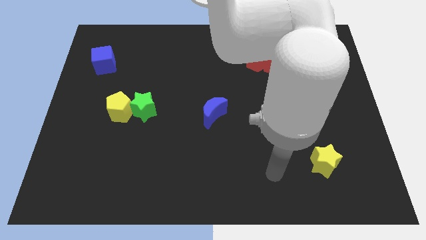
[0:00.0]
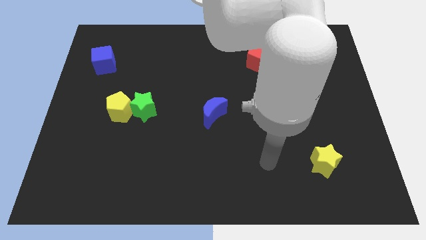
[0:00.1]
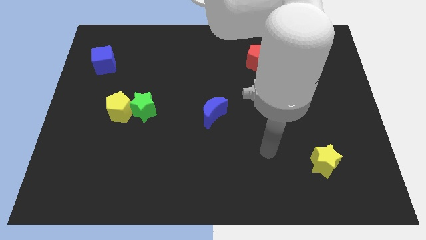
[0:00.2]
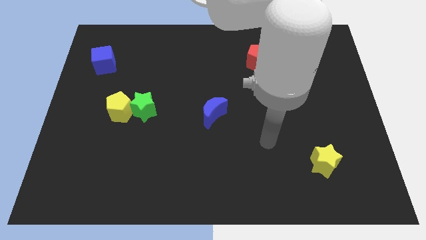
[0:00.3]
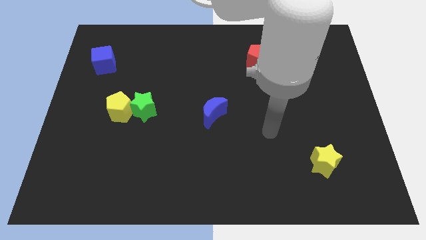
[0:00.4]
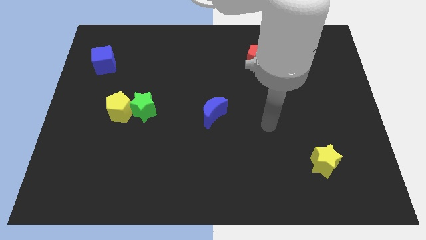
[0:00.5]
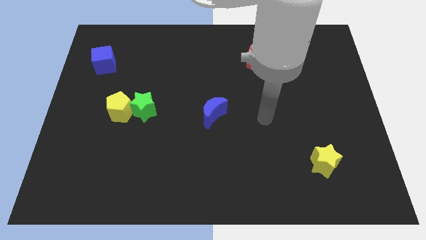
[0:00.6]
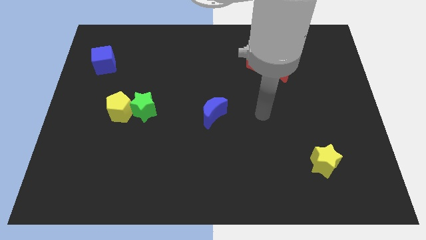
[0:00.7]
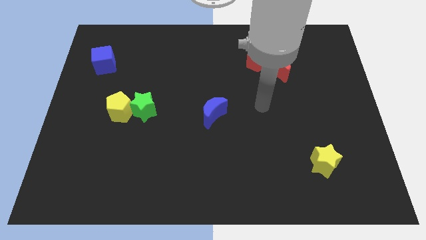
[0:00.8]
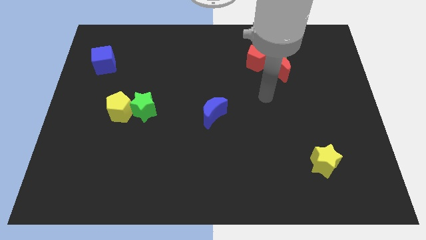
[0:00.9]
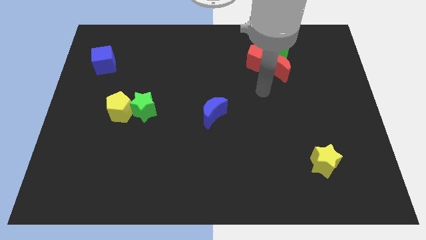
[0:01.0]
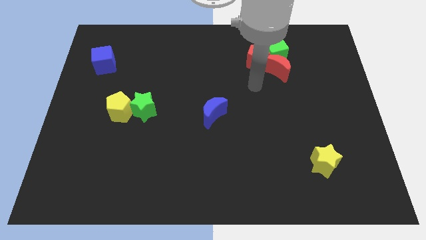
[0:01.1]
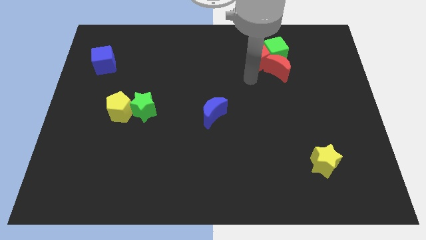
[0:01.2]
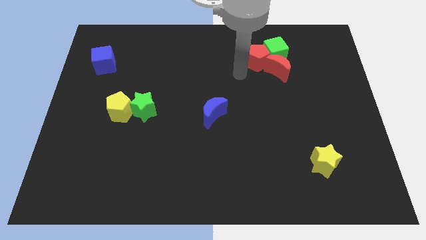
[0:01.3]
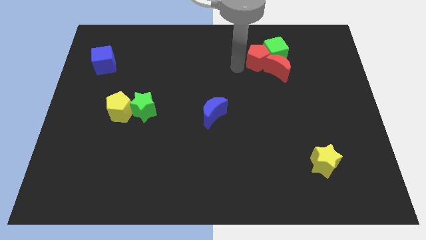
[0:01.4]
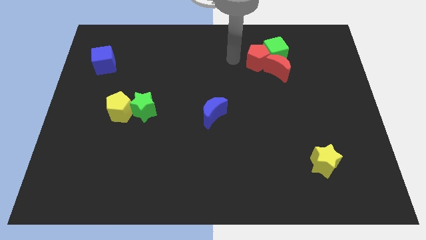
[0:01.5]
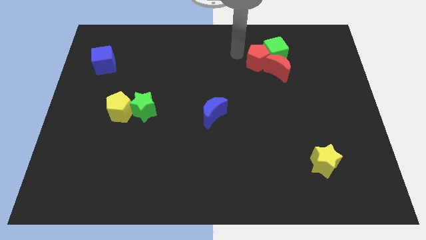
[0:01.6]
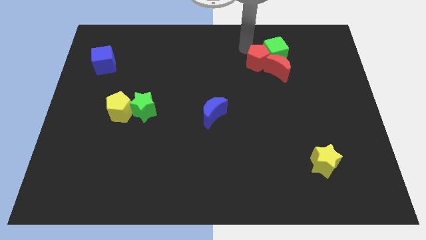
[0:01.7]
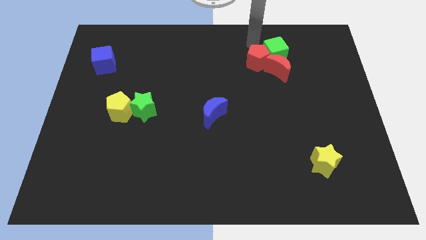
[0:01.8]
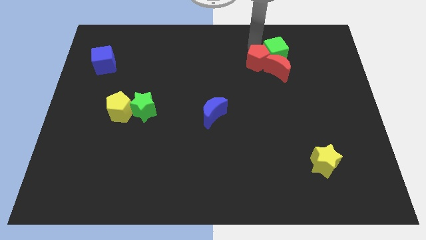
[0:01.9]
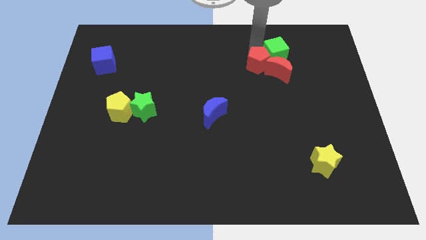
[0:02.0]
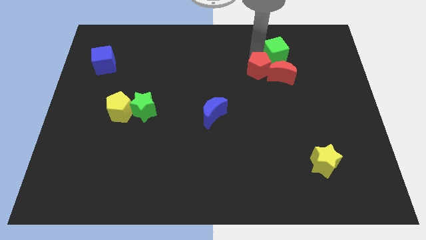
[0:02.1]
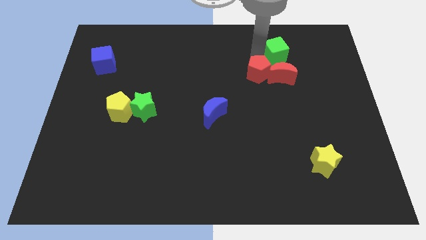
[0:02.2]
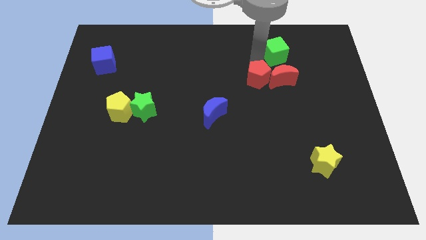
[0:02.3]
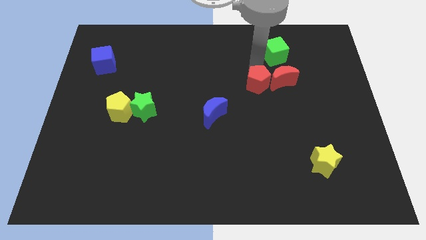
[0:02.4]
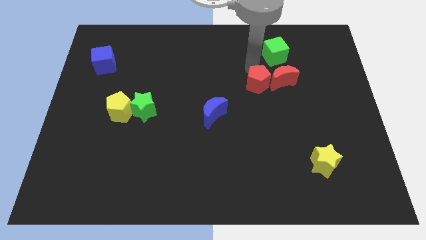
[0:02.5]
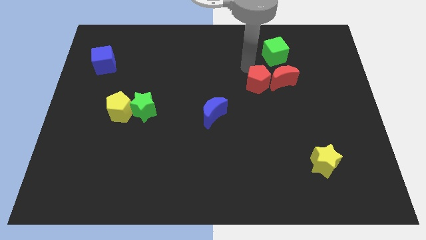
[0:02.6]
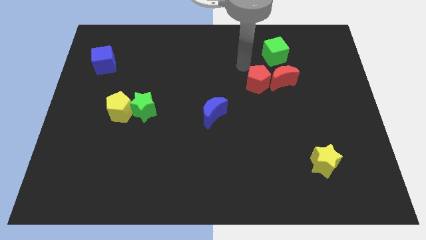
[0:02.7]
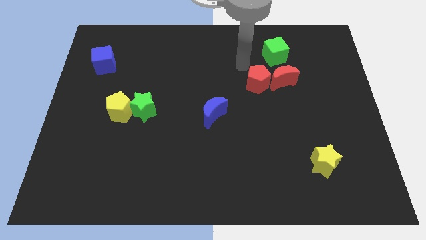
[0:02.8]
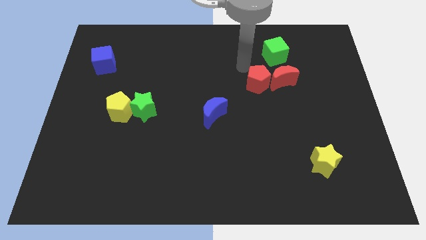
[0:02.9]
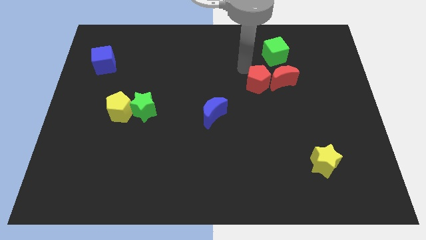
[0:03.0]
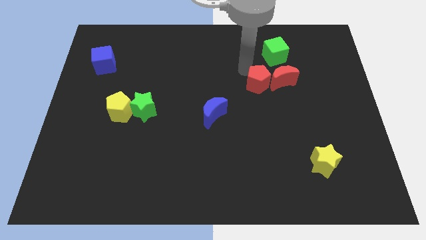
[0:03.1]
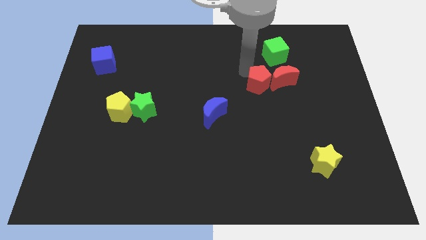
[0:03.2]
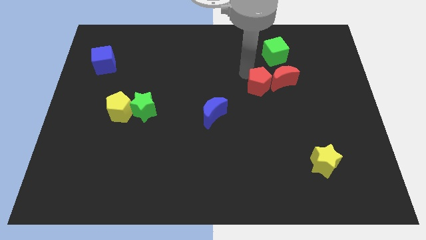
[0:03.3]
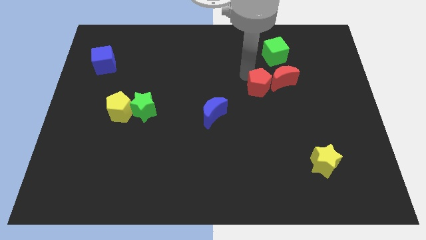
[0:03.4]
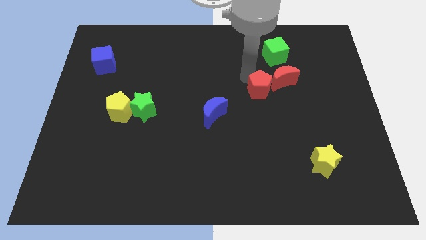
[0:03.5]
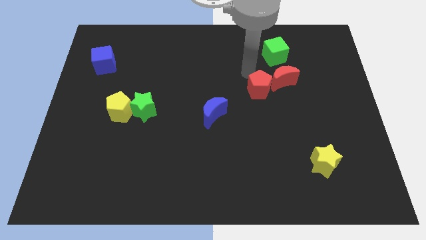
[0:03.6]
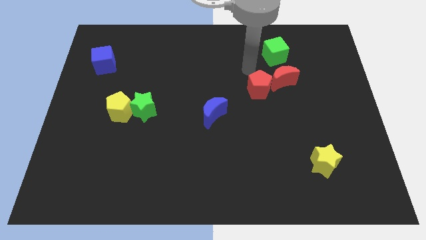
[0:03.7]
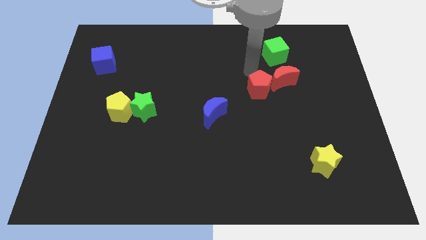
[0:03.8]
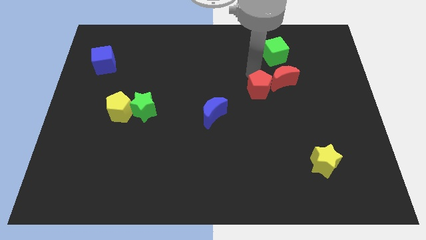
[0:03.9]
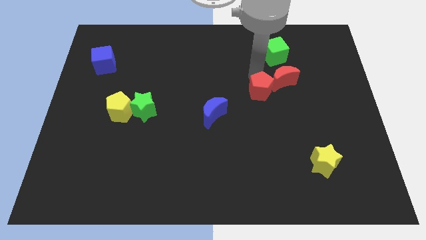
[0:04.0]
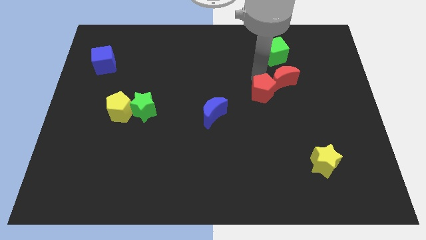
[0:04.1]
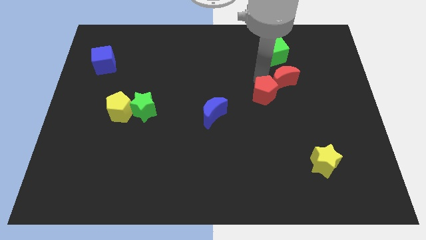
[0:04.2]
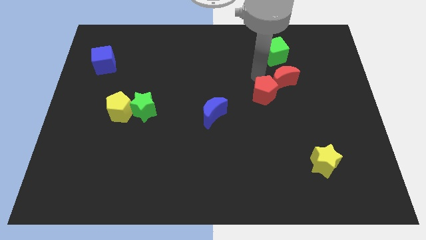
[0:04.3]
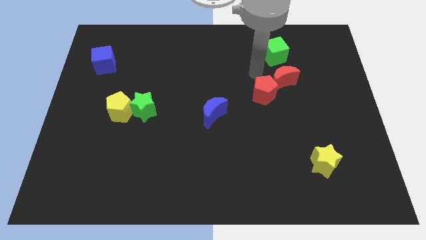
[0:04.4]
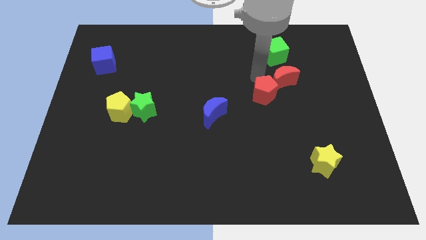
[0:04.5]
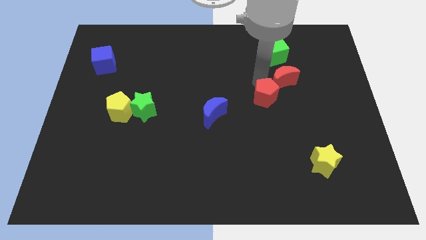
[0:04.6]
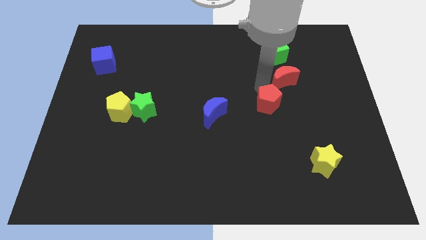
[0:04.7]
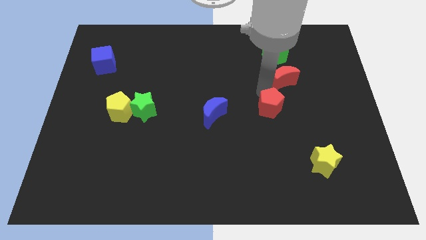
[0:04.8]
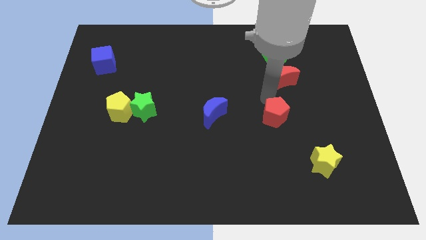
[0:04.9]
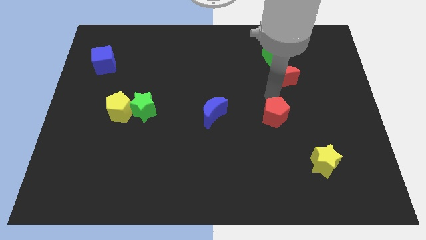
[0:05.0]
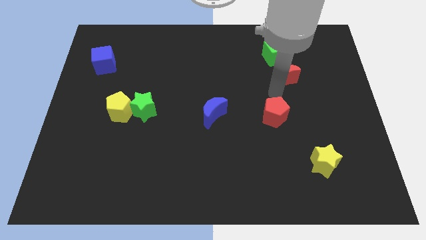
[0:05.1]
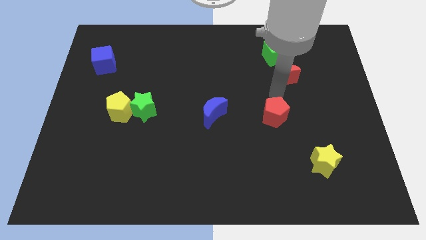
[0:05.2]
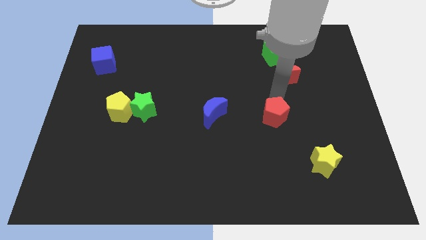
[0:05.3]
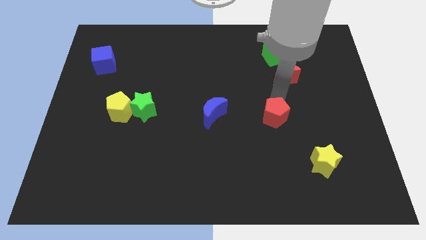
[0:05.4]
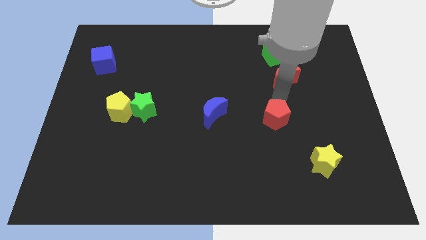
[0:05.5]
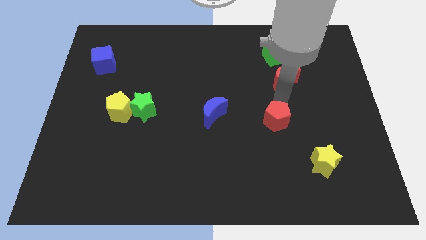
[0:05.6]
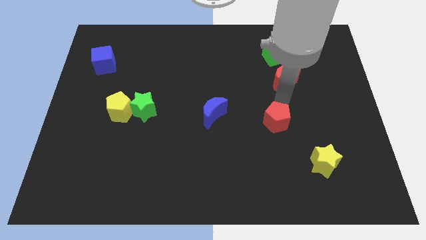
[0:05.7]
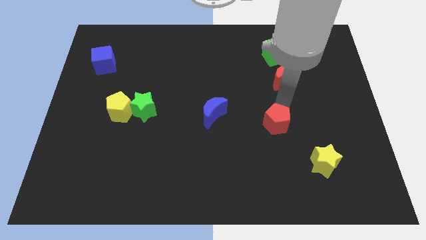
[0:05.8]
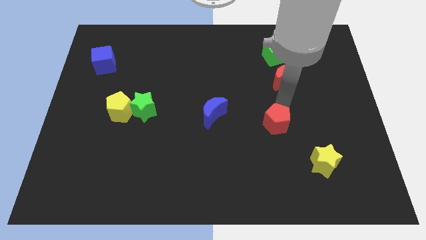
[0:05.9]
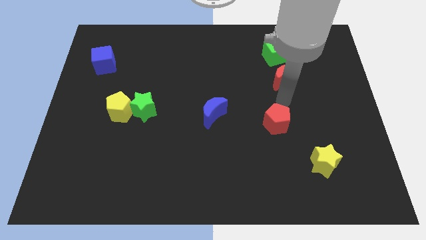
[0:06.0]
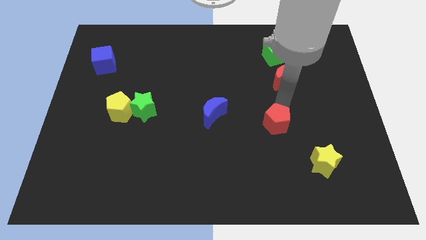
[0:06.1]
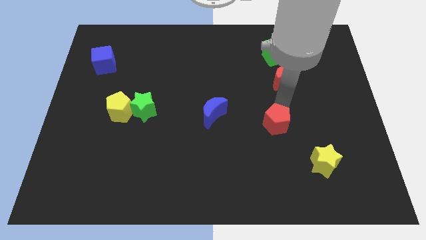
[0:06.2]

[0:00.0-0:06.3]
slide the red pentagon downwards

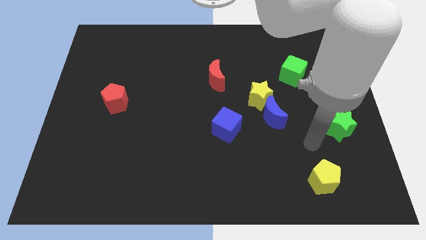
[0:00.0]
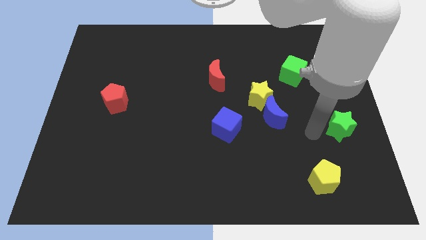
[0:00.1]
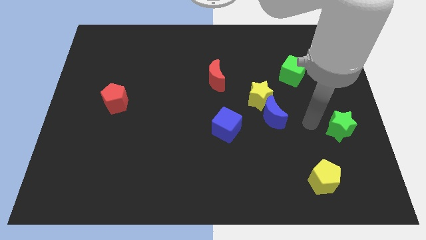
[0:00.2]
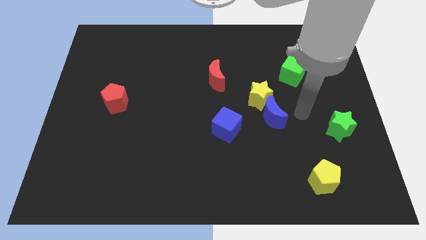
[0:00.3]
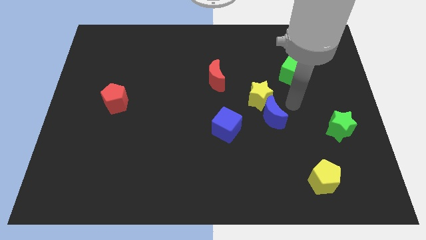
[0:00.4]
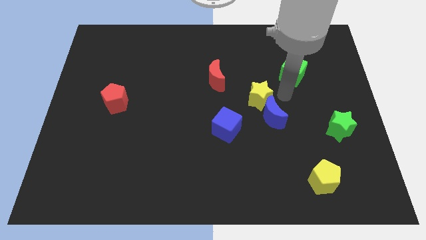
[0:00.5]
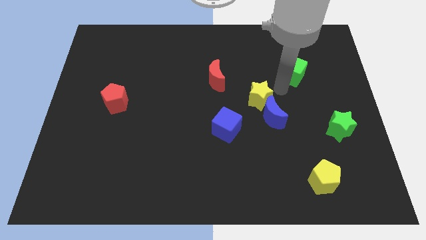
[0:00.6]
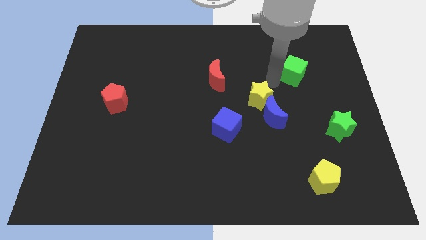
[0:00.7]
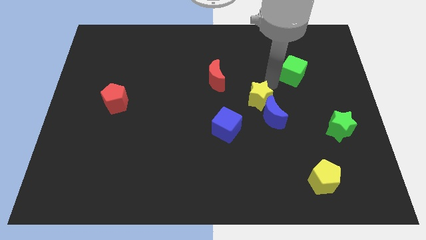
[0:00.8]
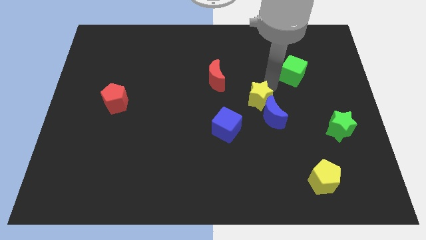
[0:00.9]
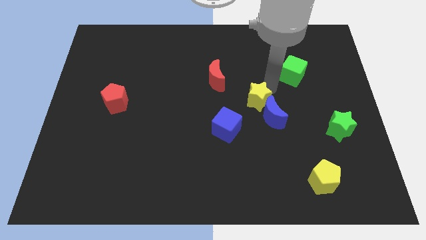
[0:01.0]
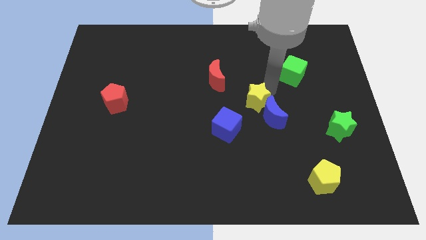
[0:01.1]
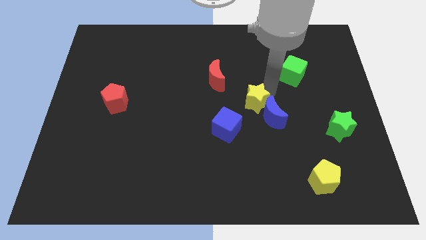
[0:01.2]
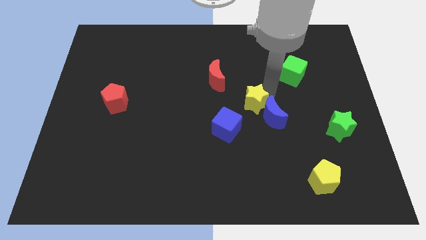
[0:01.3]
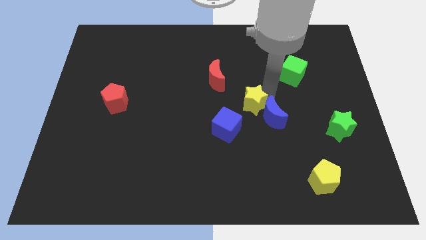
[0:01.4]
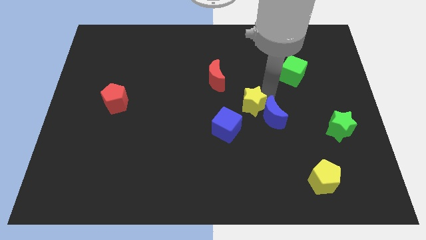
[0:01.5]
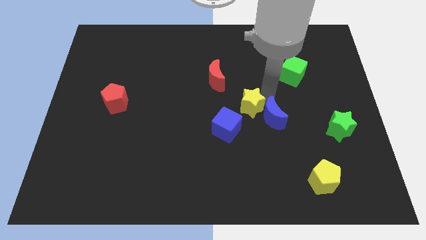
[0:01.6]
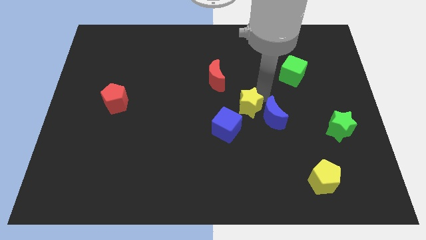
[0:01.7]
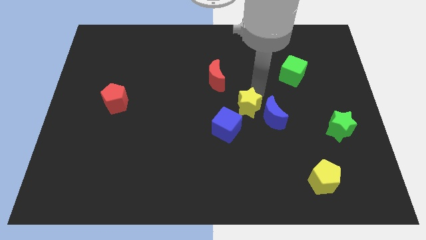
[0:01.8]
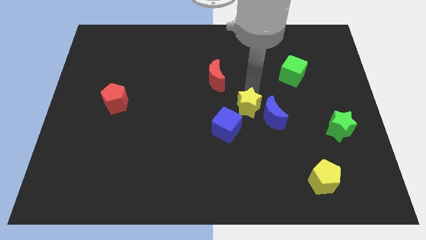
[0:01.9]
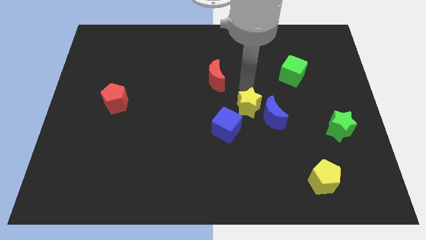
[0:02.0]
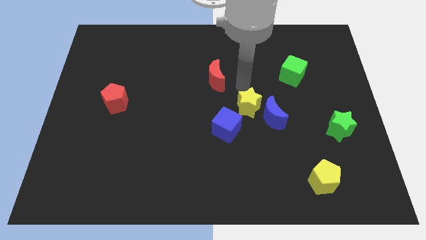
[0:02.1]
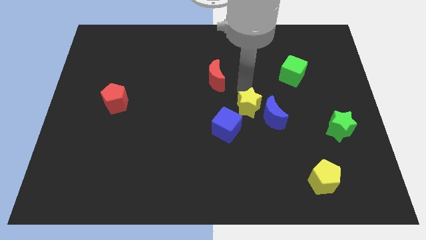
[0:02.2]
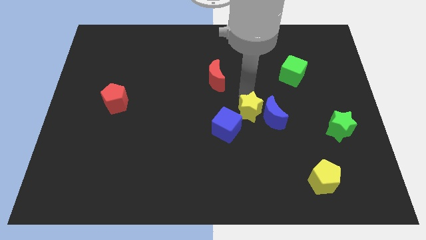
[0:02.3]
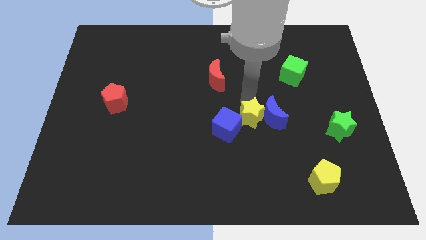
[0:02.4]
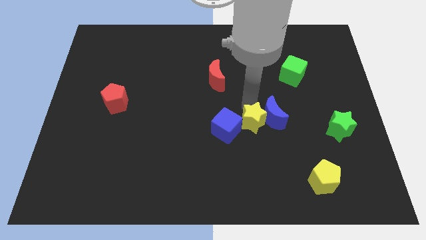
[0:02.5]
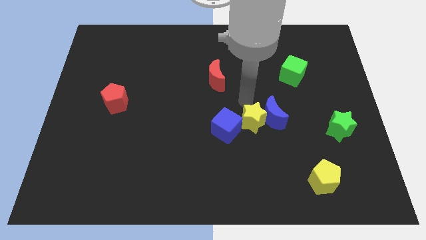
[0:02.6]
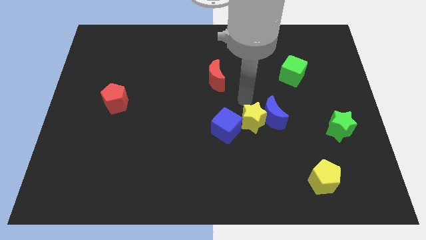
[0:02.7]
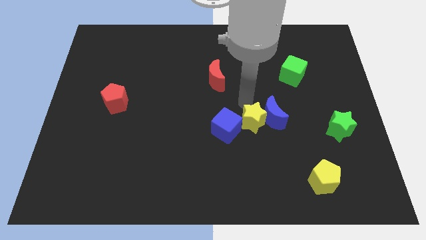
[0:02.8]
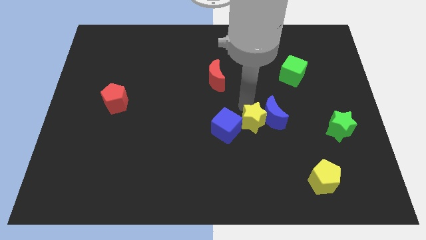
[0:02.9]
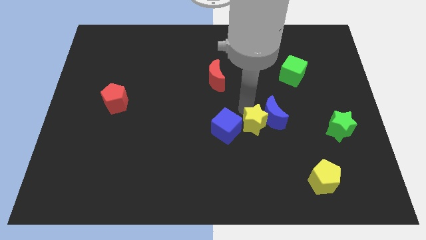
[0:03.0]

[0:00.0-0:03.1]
slightly slide the yellow star downwards
